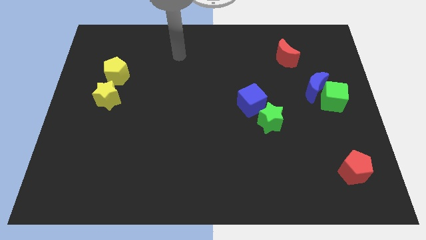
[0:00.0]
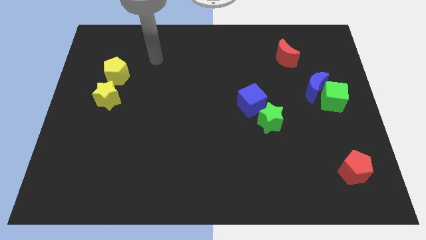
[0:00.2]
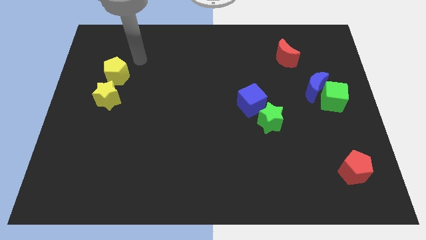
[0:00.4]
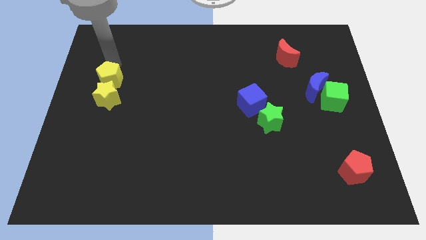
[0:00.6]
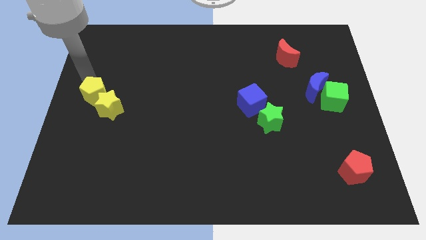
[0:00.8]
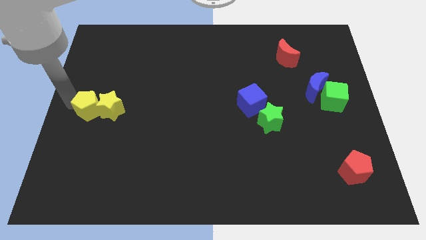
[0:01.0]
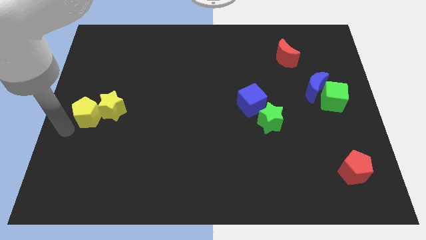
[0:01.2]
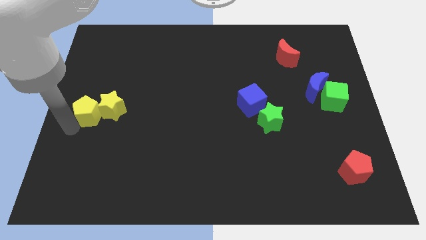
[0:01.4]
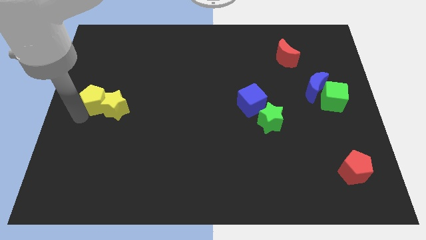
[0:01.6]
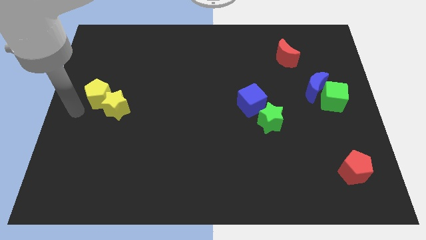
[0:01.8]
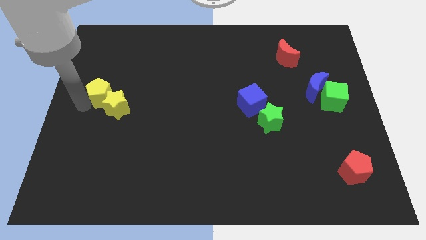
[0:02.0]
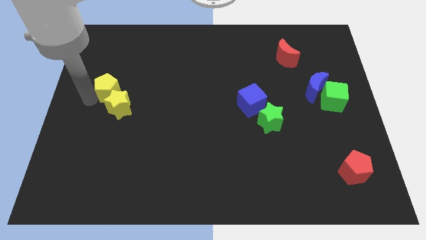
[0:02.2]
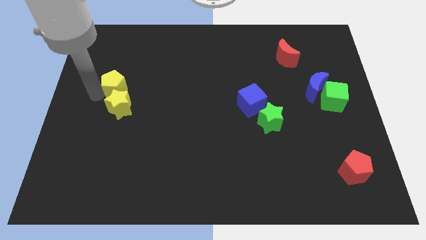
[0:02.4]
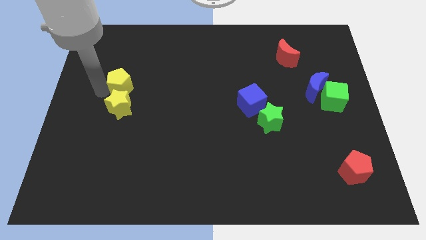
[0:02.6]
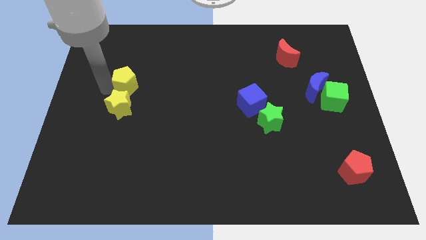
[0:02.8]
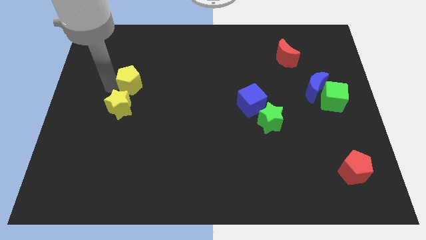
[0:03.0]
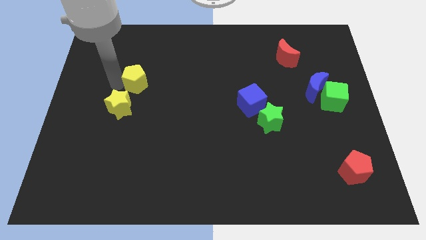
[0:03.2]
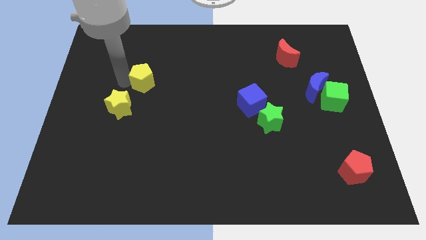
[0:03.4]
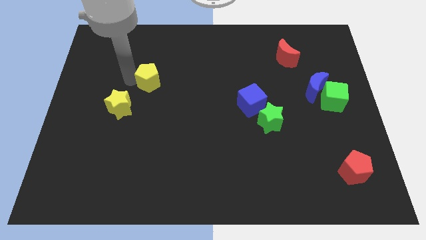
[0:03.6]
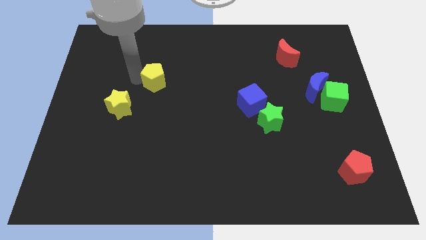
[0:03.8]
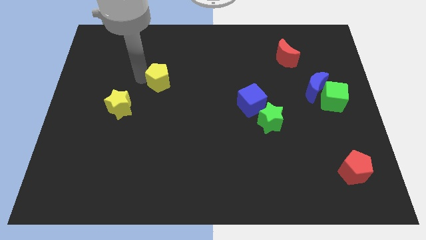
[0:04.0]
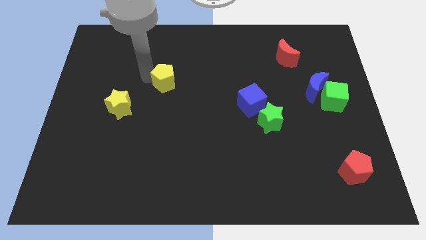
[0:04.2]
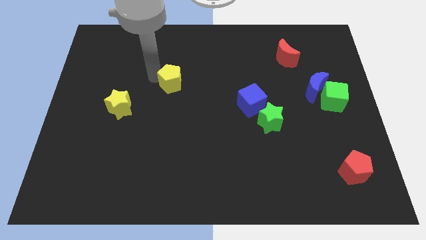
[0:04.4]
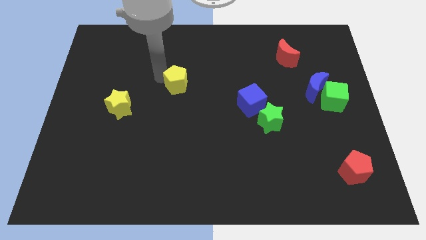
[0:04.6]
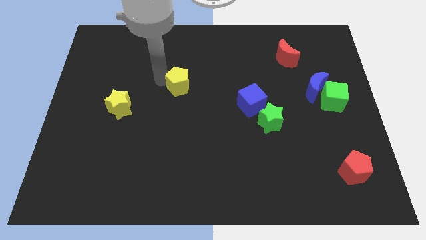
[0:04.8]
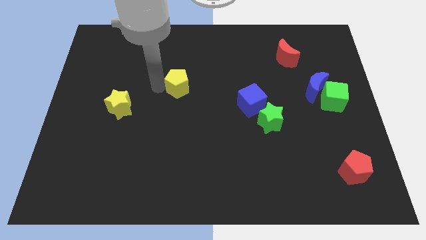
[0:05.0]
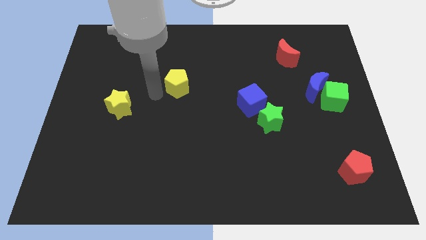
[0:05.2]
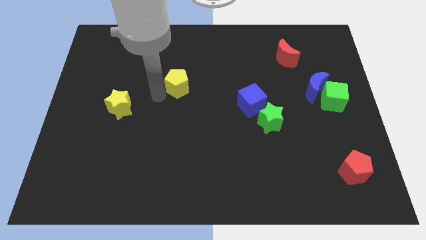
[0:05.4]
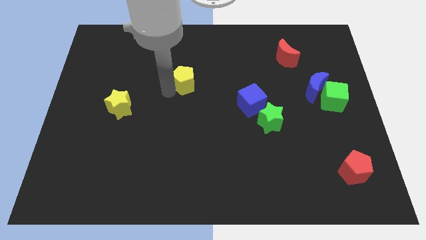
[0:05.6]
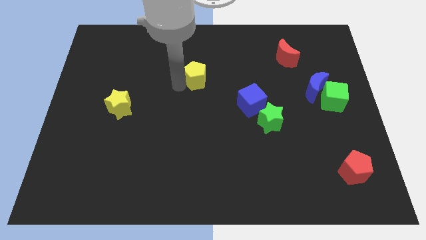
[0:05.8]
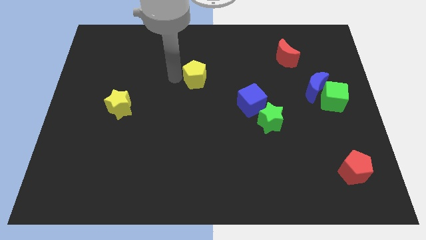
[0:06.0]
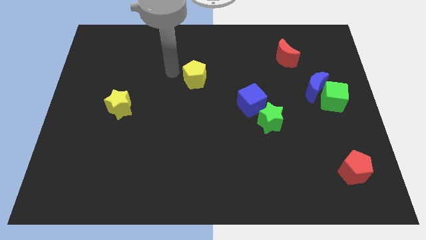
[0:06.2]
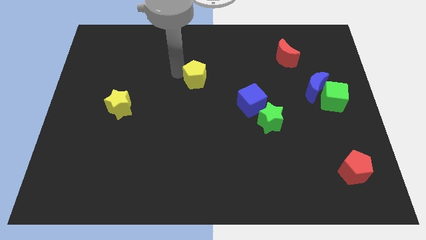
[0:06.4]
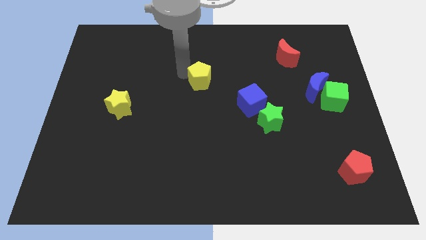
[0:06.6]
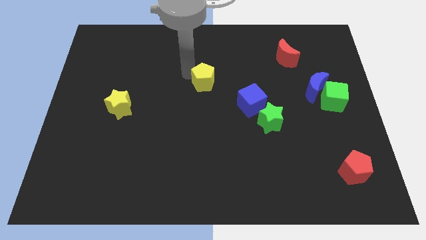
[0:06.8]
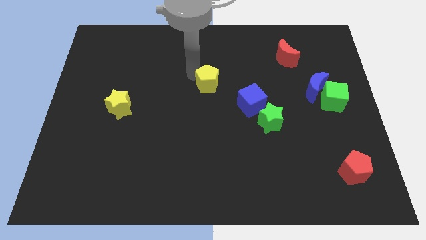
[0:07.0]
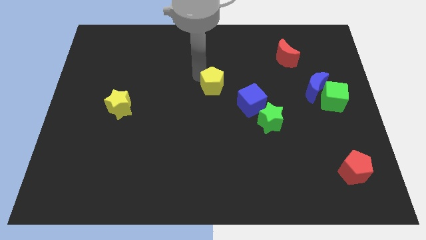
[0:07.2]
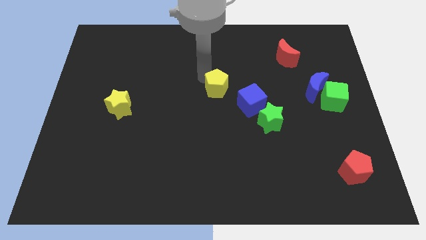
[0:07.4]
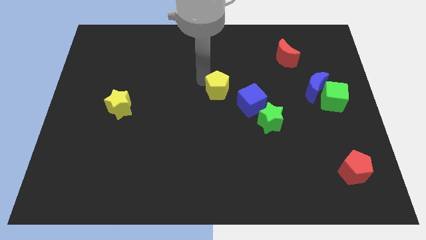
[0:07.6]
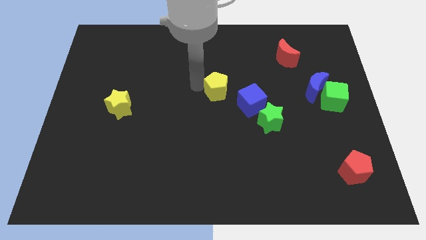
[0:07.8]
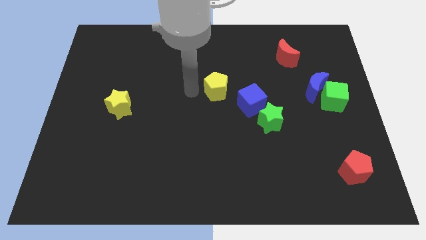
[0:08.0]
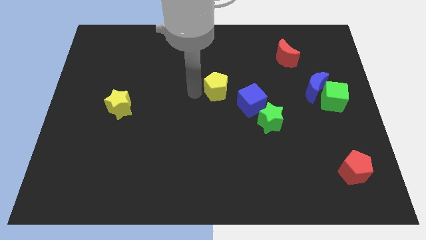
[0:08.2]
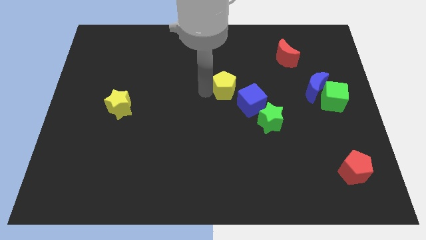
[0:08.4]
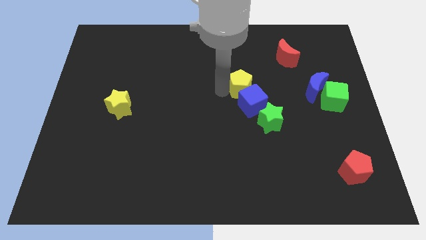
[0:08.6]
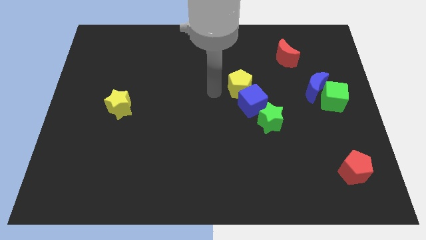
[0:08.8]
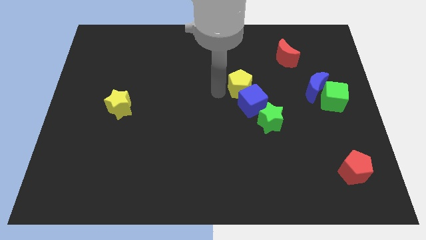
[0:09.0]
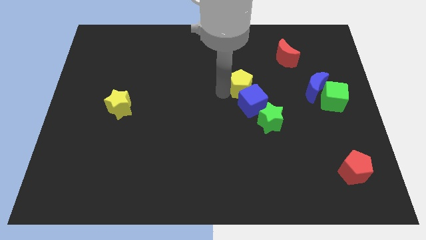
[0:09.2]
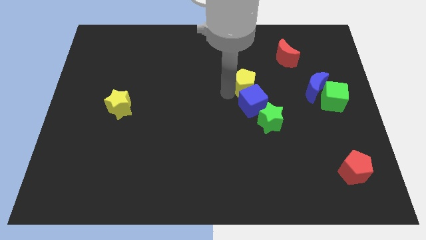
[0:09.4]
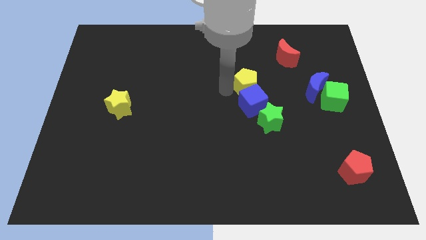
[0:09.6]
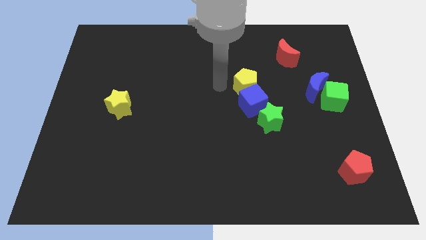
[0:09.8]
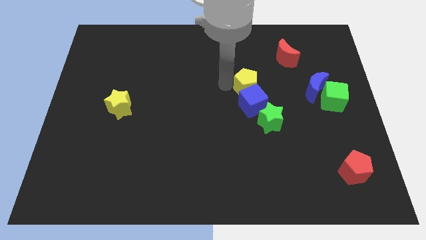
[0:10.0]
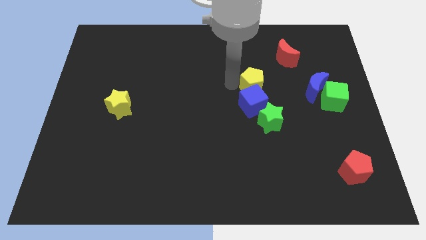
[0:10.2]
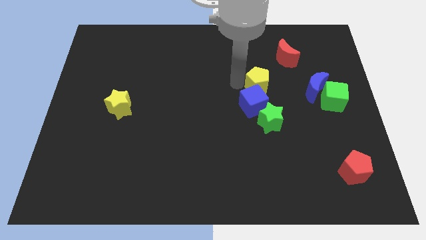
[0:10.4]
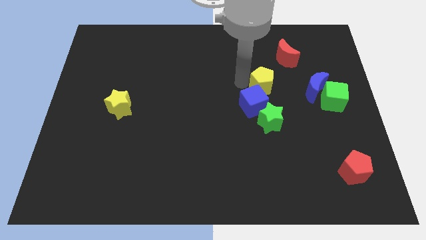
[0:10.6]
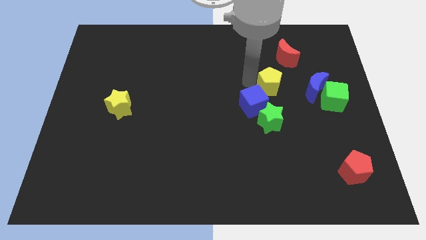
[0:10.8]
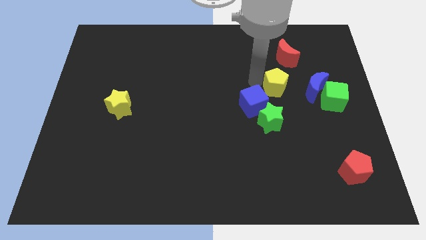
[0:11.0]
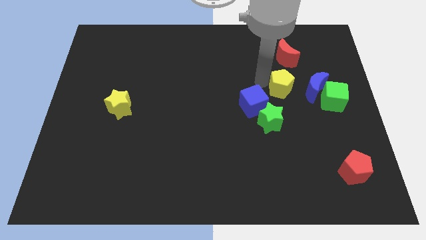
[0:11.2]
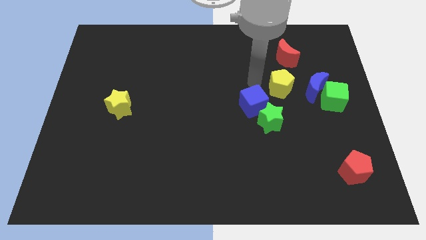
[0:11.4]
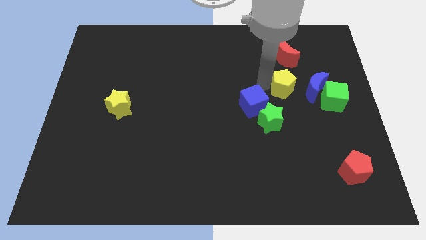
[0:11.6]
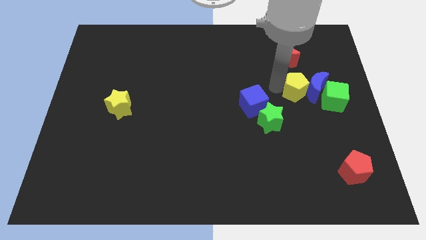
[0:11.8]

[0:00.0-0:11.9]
move the yellow pentagon towards the blue moon

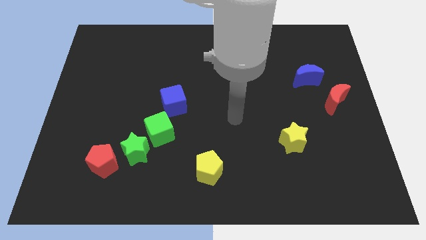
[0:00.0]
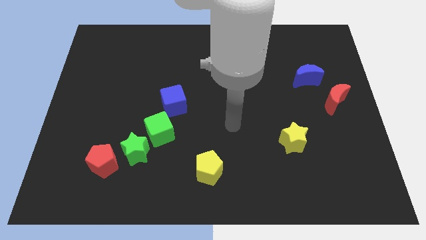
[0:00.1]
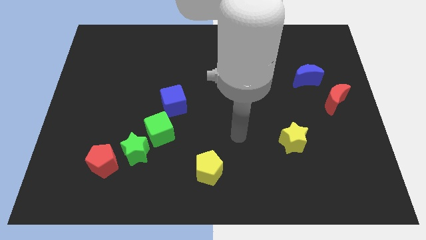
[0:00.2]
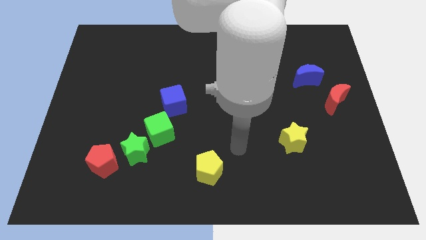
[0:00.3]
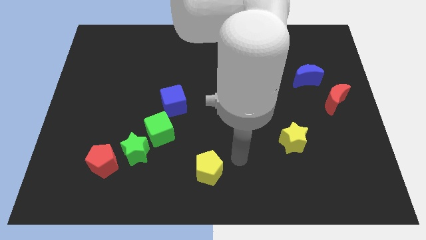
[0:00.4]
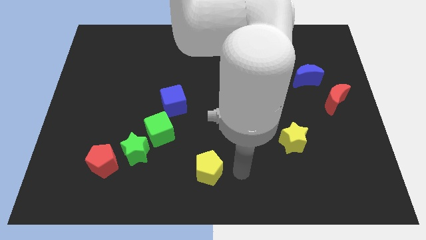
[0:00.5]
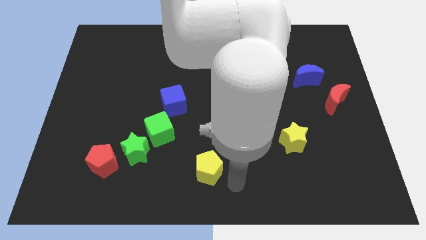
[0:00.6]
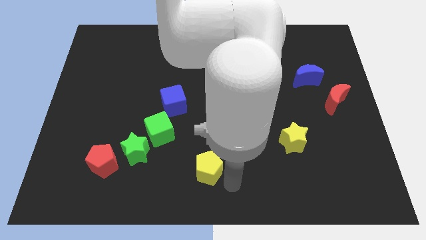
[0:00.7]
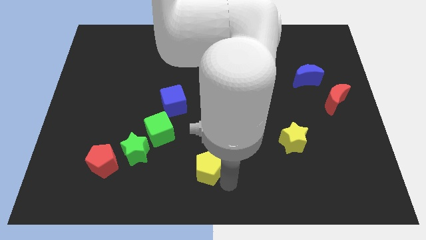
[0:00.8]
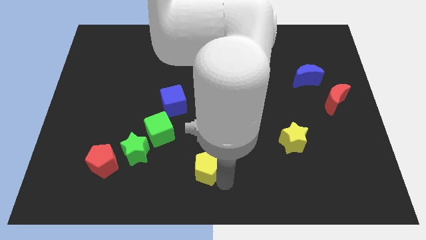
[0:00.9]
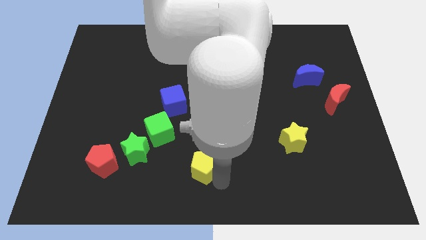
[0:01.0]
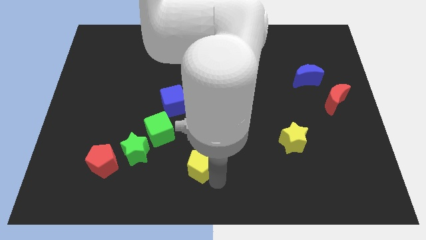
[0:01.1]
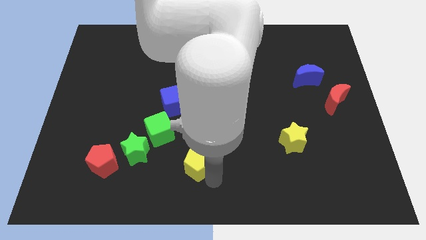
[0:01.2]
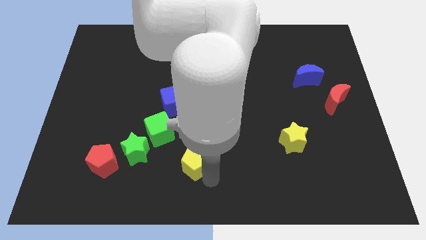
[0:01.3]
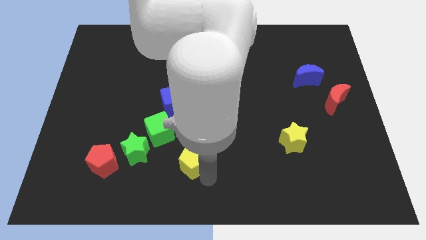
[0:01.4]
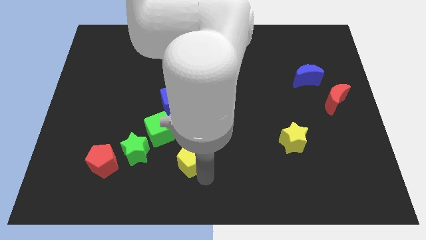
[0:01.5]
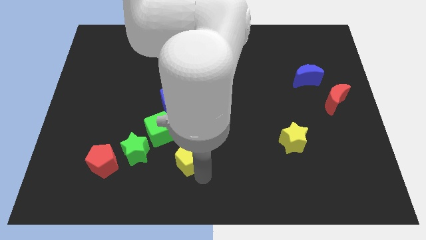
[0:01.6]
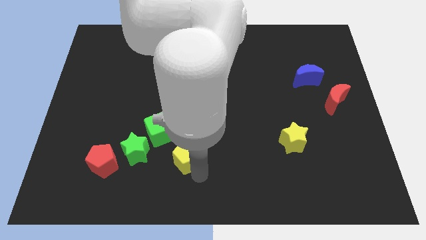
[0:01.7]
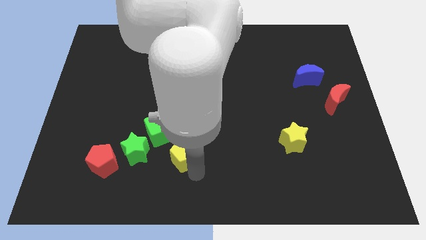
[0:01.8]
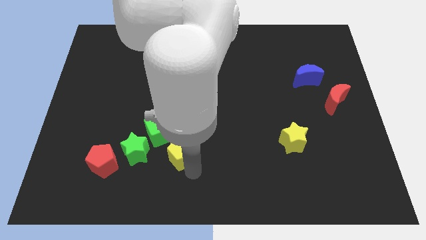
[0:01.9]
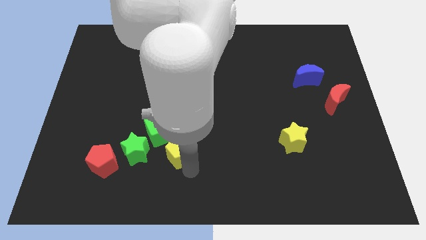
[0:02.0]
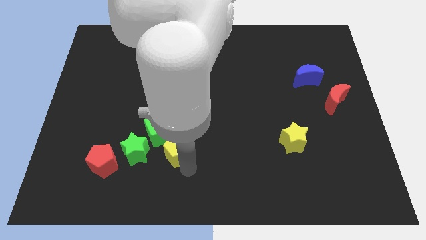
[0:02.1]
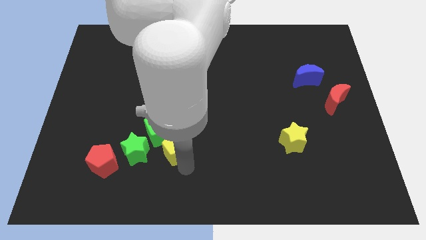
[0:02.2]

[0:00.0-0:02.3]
put the yellow pentagon to the green cube
